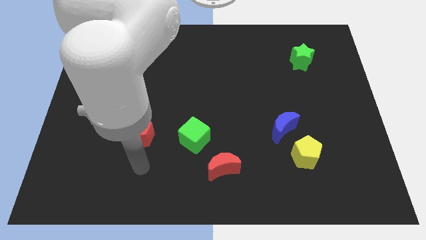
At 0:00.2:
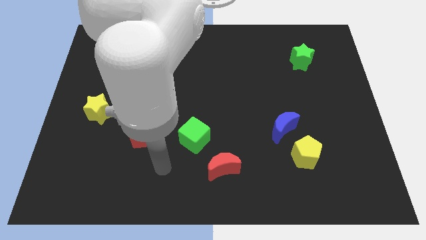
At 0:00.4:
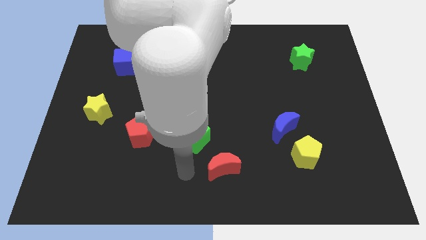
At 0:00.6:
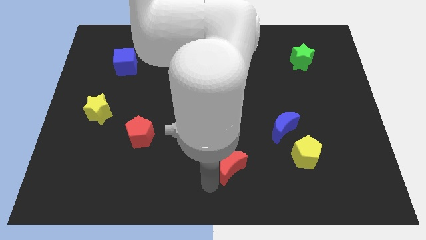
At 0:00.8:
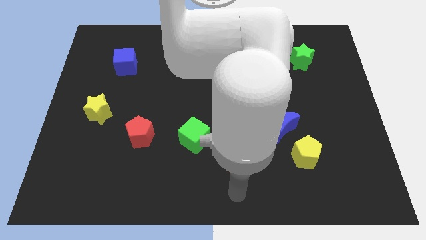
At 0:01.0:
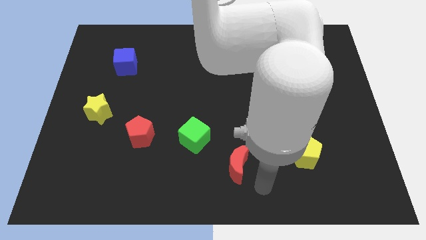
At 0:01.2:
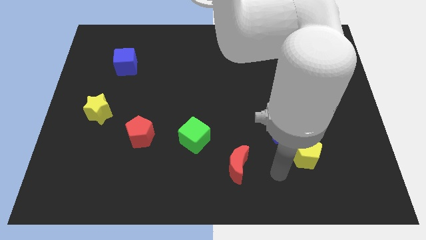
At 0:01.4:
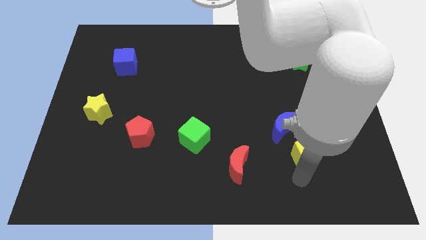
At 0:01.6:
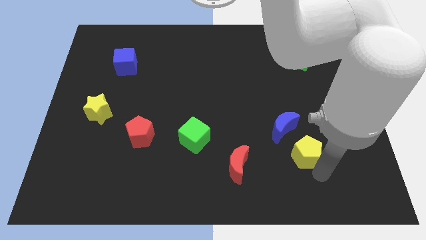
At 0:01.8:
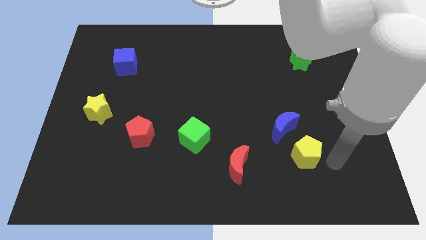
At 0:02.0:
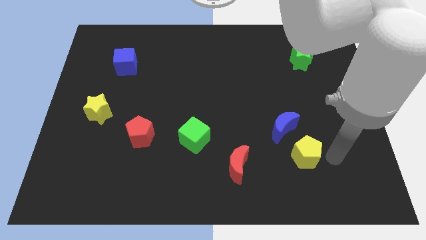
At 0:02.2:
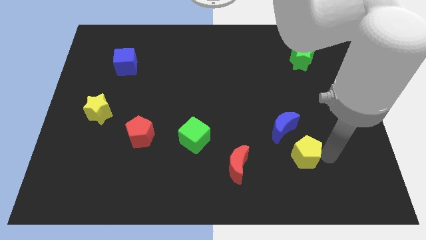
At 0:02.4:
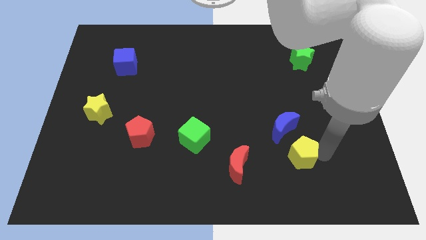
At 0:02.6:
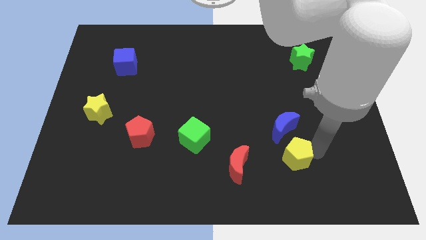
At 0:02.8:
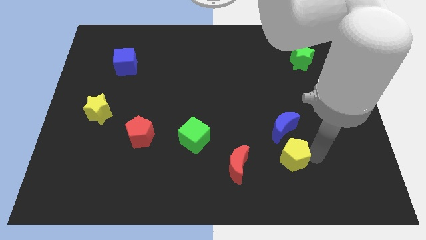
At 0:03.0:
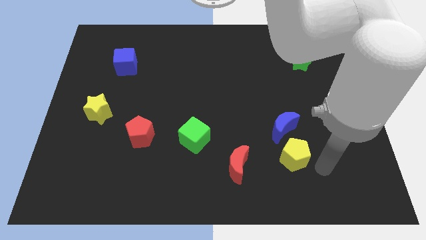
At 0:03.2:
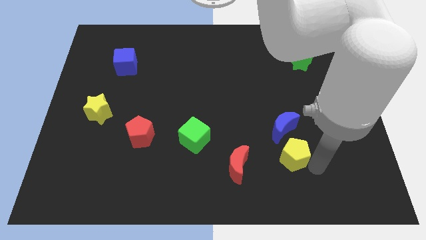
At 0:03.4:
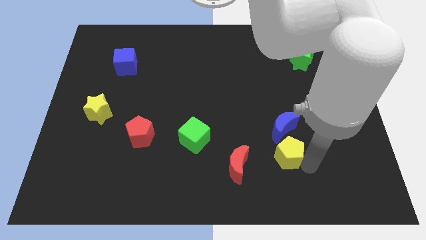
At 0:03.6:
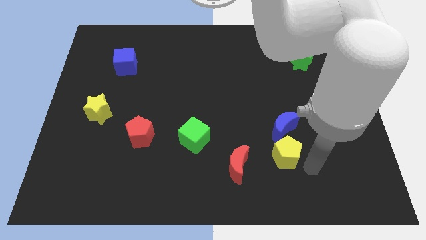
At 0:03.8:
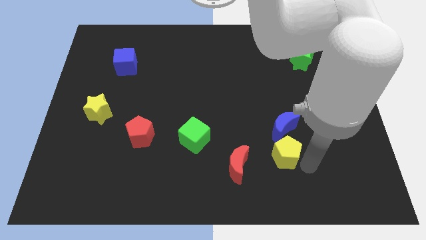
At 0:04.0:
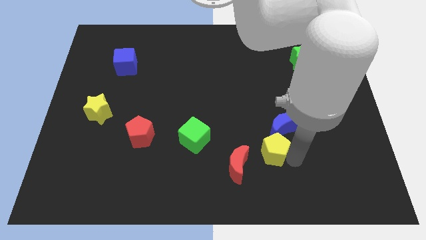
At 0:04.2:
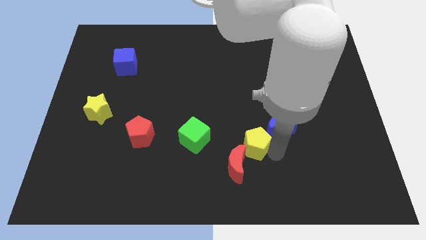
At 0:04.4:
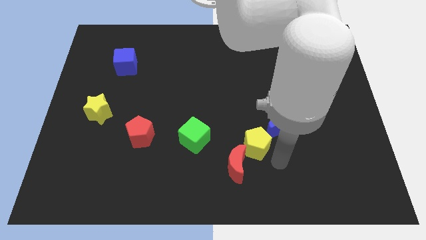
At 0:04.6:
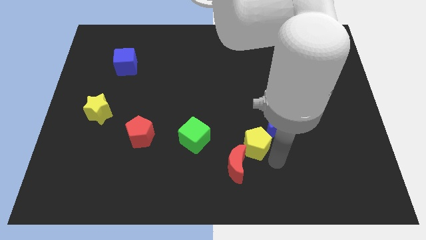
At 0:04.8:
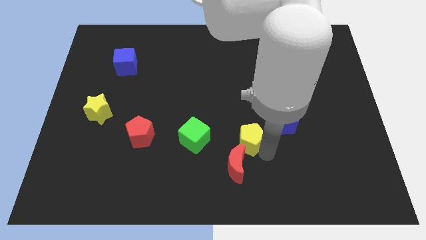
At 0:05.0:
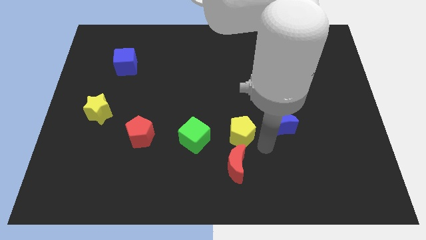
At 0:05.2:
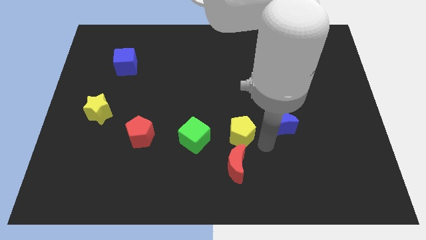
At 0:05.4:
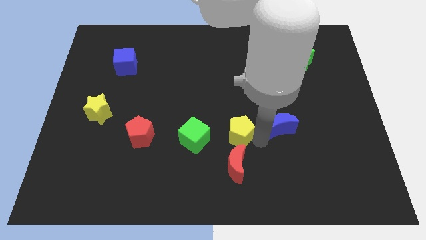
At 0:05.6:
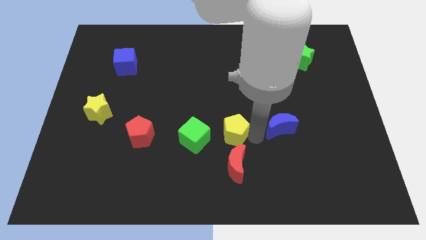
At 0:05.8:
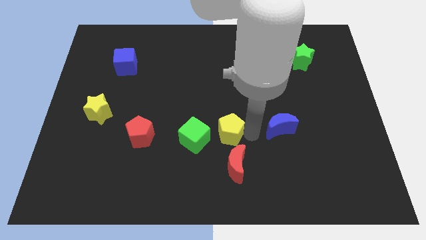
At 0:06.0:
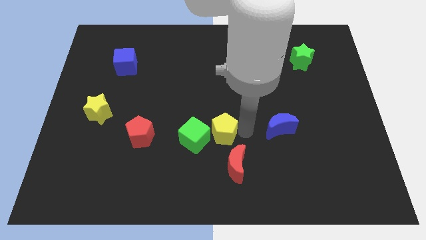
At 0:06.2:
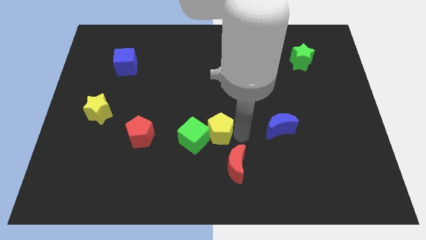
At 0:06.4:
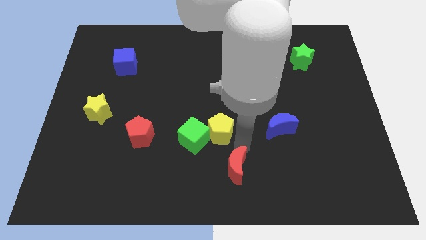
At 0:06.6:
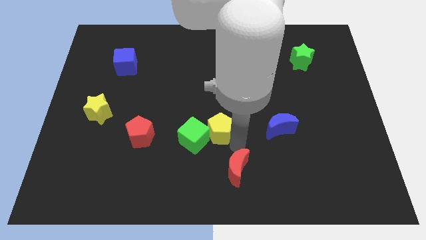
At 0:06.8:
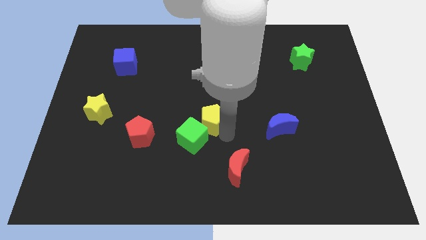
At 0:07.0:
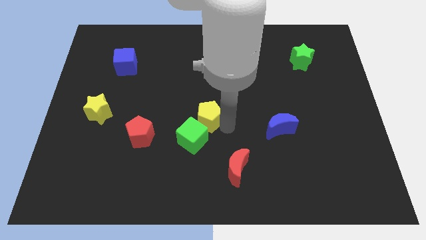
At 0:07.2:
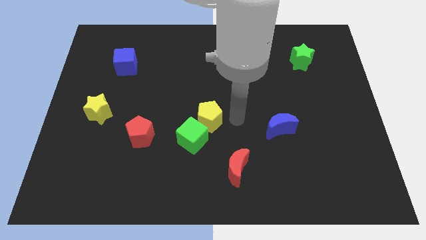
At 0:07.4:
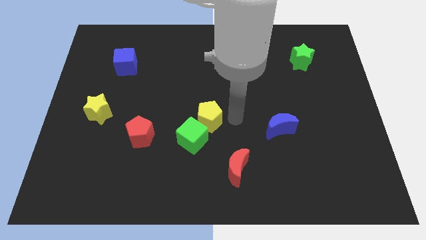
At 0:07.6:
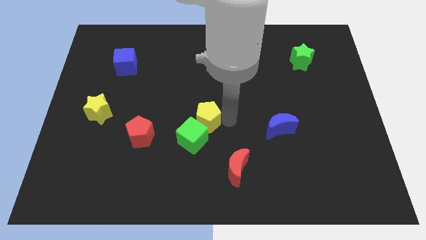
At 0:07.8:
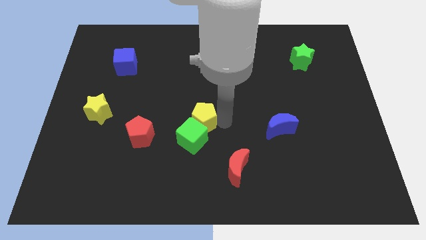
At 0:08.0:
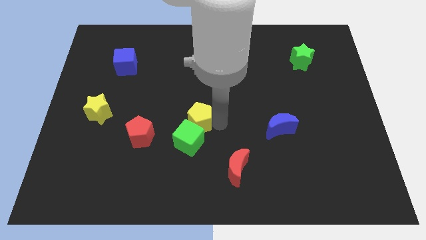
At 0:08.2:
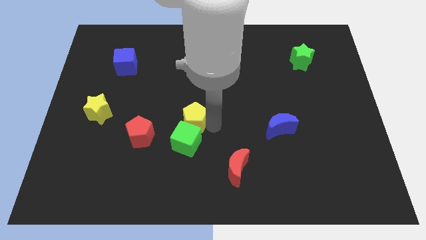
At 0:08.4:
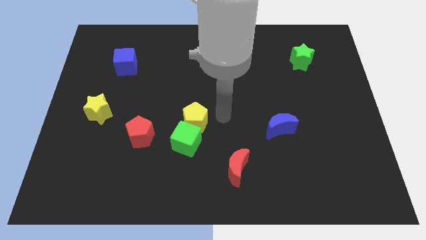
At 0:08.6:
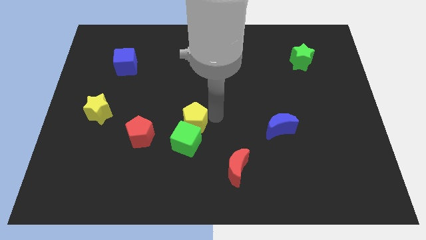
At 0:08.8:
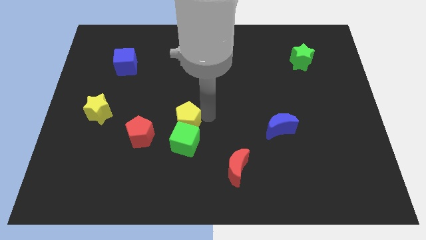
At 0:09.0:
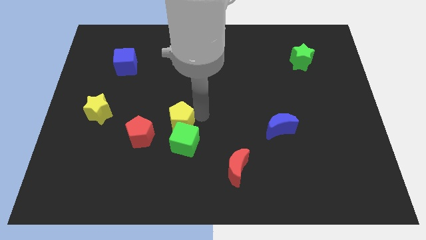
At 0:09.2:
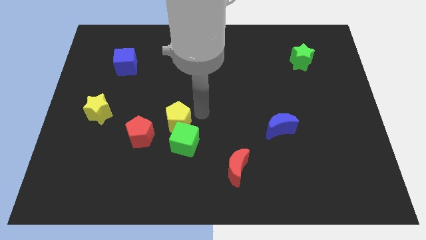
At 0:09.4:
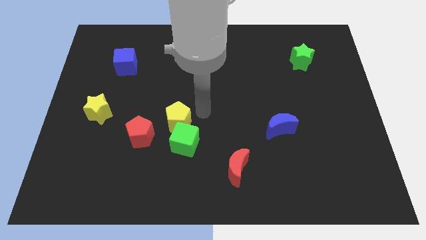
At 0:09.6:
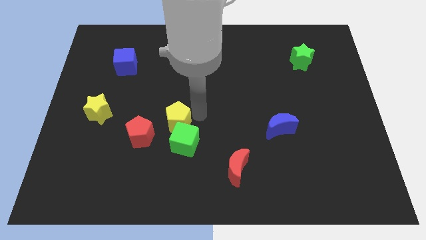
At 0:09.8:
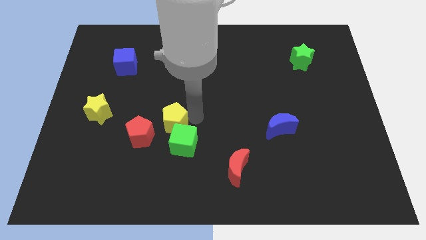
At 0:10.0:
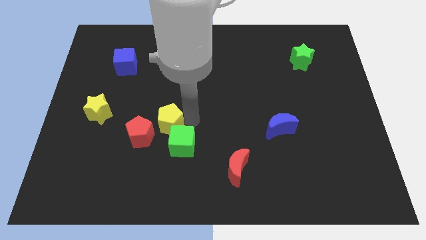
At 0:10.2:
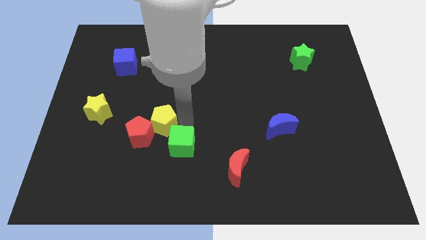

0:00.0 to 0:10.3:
move the yellow pentagon to the red pentagon

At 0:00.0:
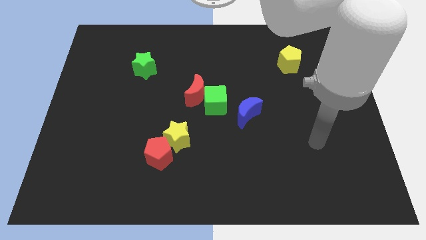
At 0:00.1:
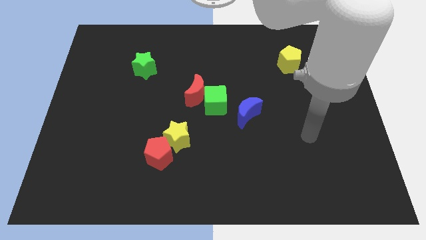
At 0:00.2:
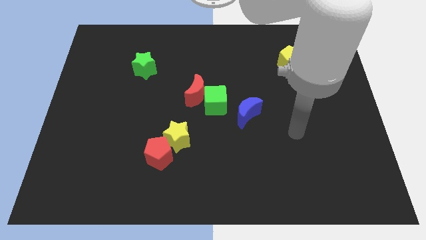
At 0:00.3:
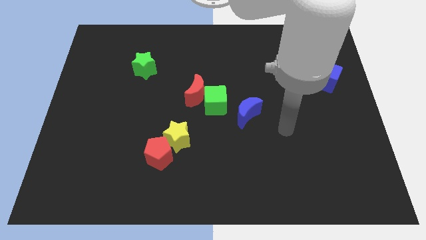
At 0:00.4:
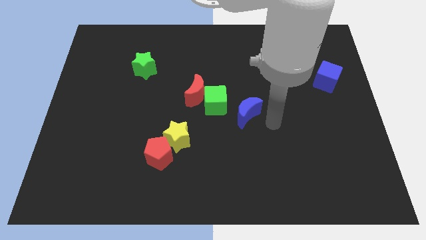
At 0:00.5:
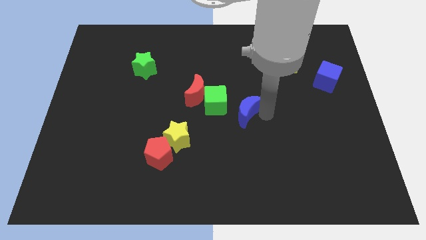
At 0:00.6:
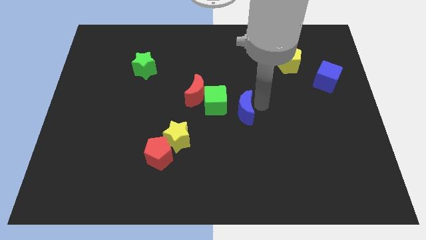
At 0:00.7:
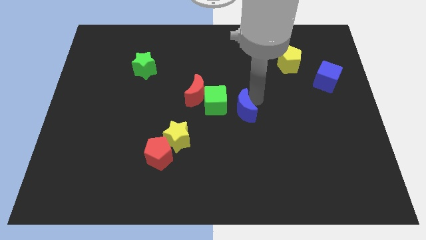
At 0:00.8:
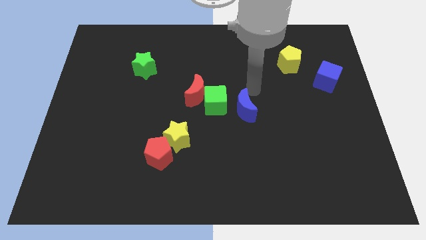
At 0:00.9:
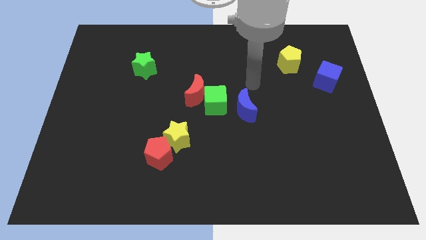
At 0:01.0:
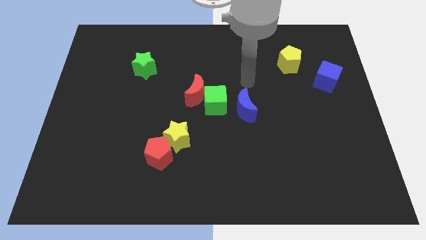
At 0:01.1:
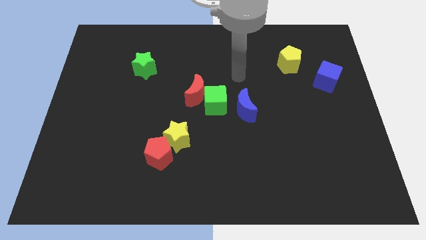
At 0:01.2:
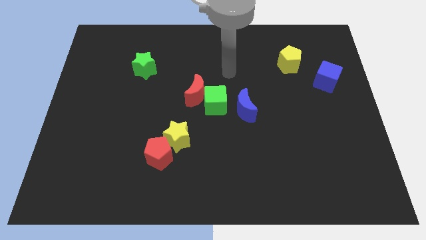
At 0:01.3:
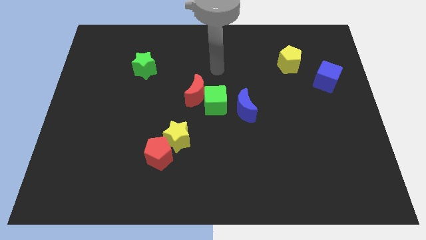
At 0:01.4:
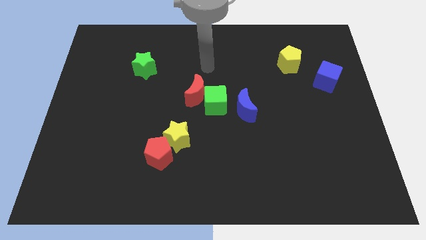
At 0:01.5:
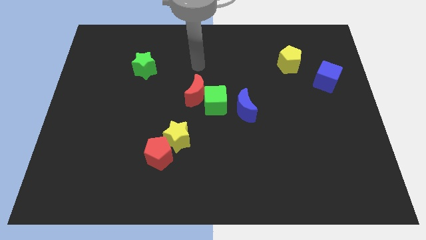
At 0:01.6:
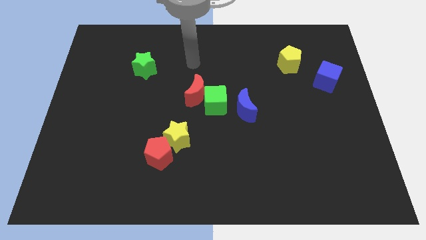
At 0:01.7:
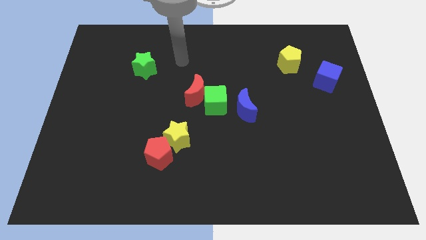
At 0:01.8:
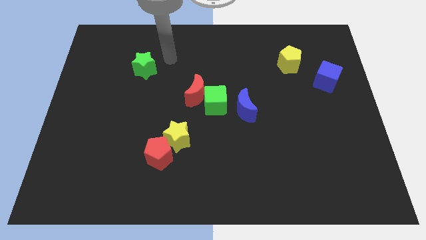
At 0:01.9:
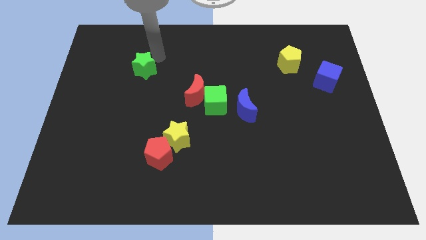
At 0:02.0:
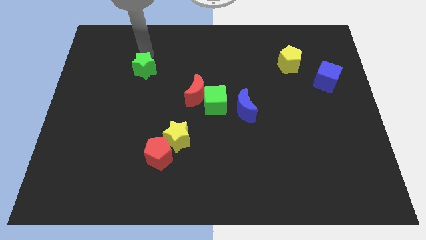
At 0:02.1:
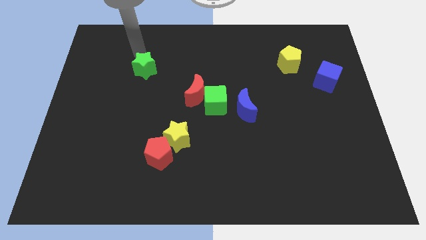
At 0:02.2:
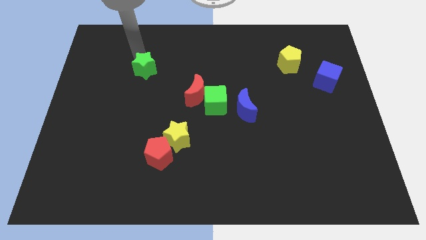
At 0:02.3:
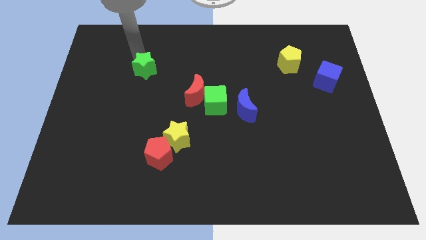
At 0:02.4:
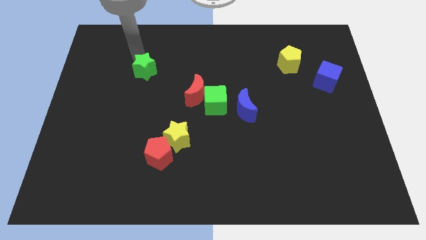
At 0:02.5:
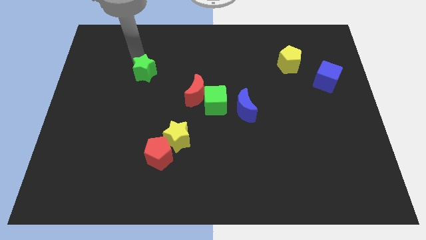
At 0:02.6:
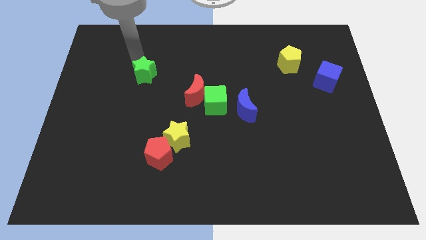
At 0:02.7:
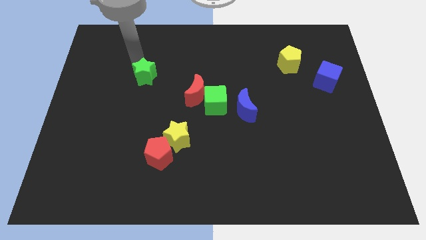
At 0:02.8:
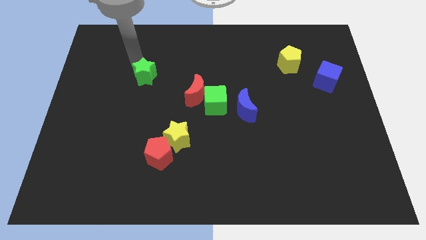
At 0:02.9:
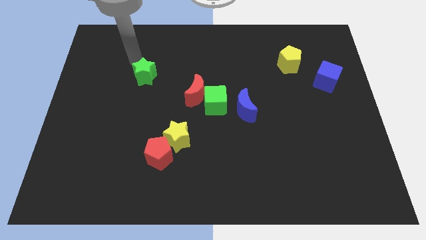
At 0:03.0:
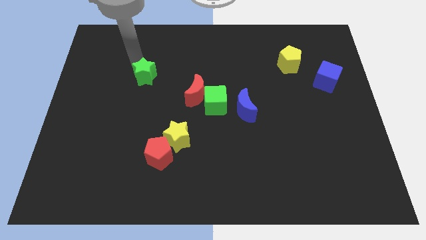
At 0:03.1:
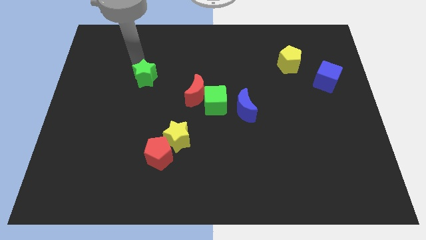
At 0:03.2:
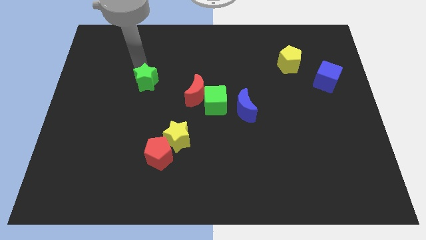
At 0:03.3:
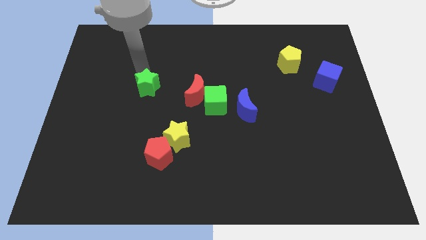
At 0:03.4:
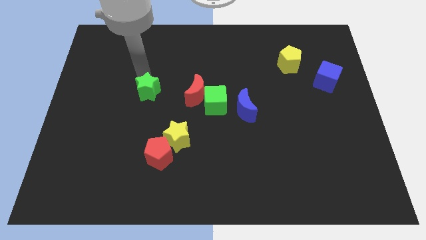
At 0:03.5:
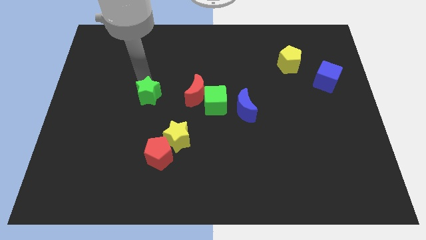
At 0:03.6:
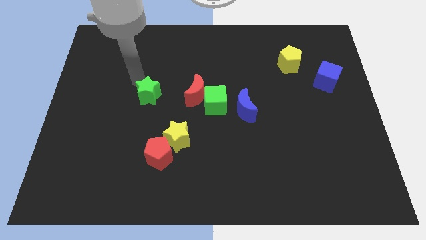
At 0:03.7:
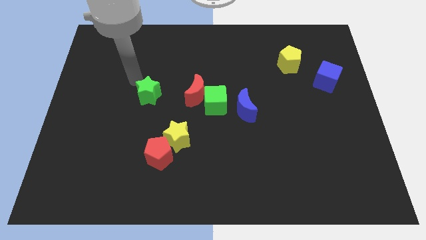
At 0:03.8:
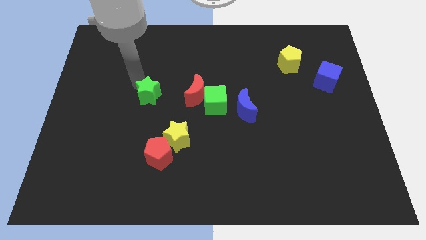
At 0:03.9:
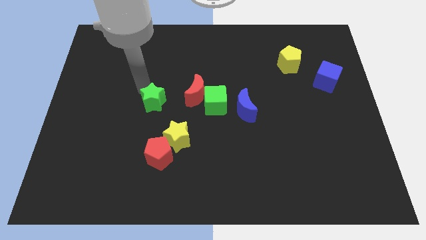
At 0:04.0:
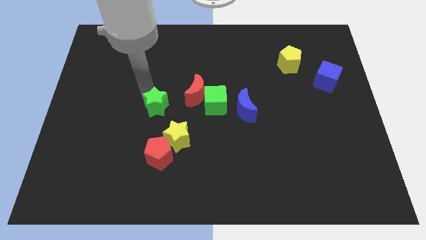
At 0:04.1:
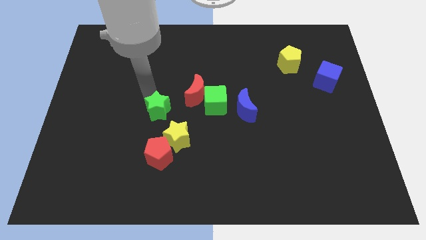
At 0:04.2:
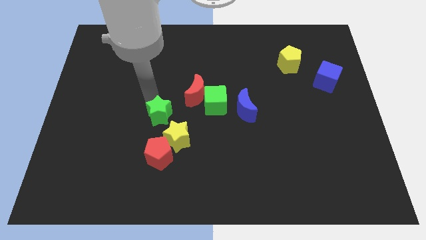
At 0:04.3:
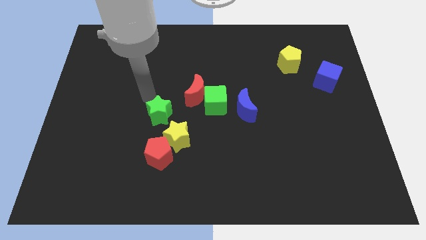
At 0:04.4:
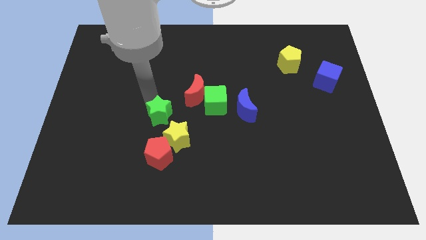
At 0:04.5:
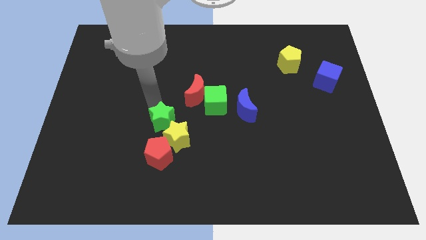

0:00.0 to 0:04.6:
slide the green star to the yellow star
